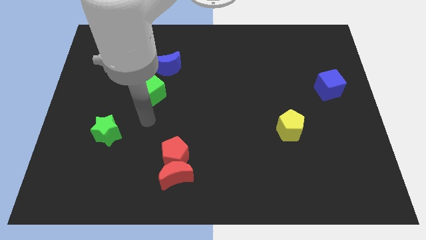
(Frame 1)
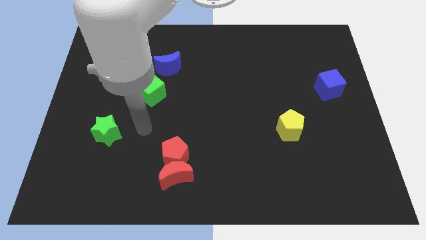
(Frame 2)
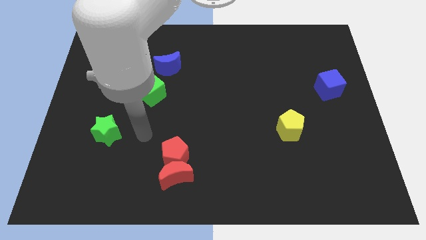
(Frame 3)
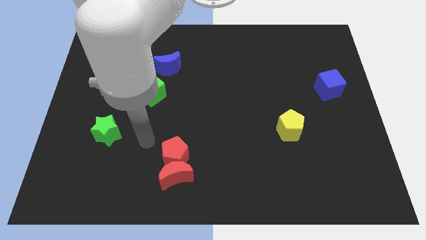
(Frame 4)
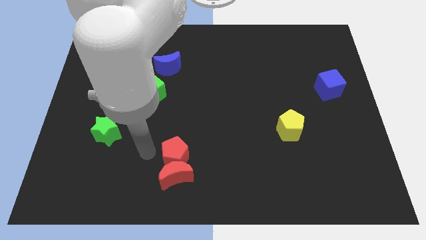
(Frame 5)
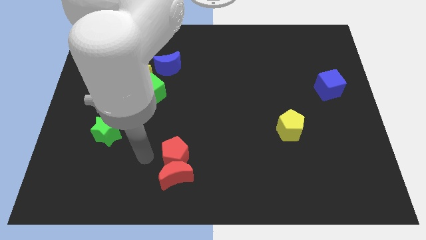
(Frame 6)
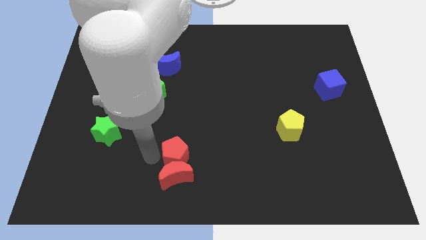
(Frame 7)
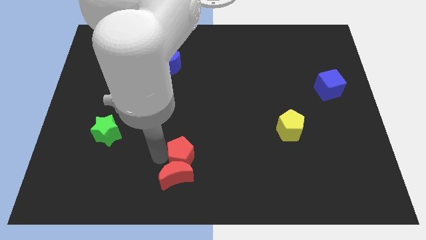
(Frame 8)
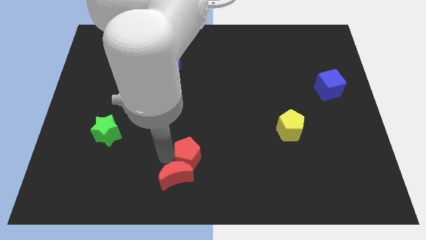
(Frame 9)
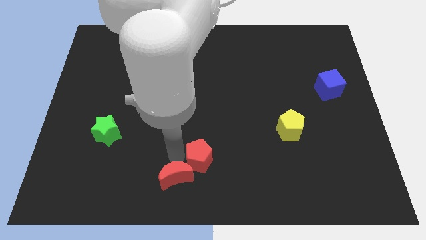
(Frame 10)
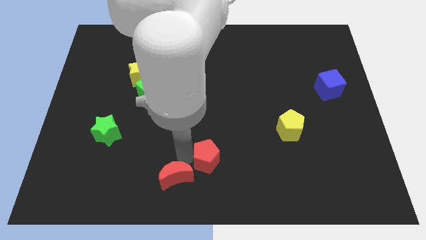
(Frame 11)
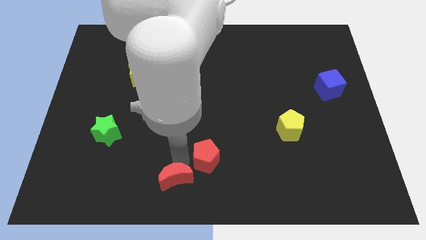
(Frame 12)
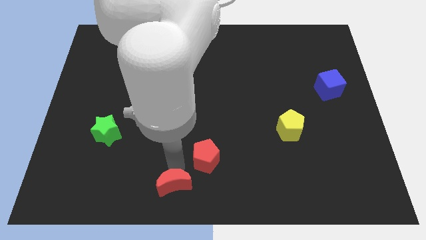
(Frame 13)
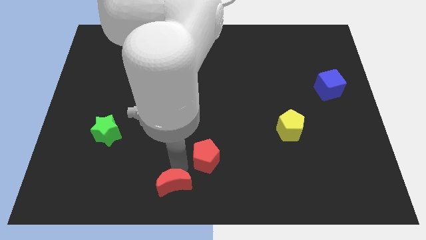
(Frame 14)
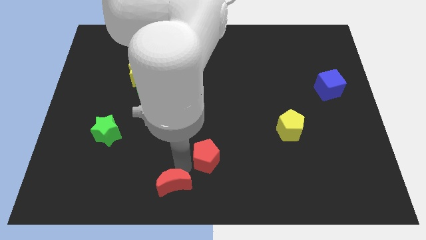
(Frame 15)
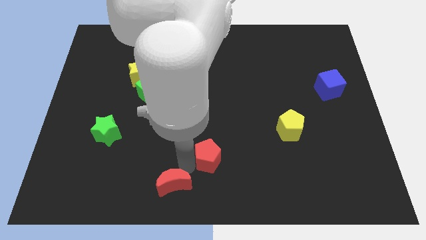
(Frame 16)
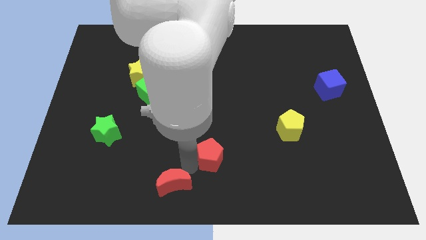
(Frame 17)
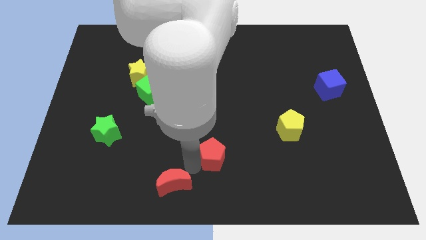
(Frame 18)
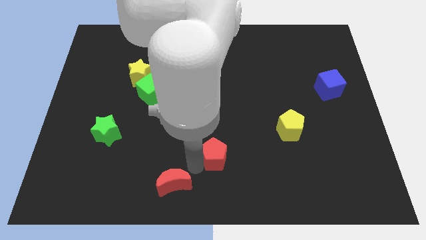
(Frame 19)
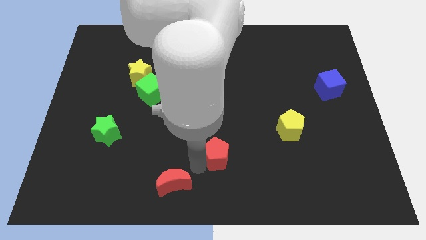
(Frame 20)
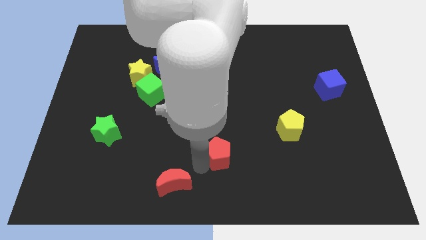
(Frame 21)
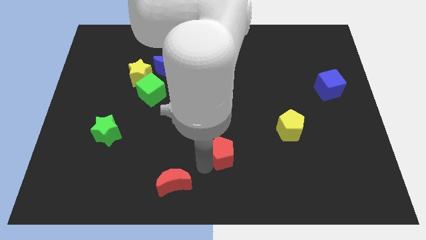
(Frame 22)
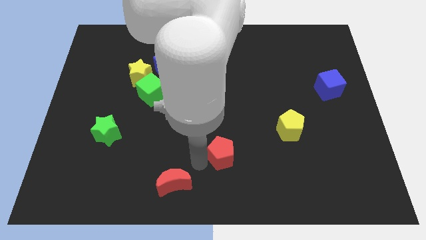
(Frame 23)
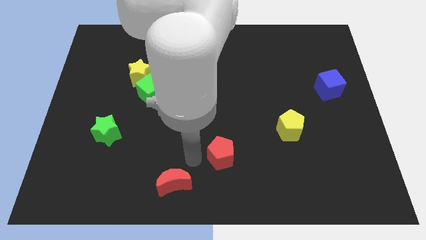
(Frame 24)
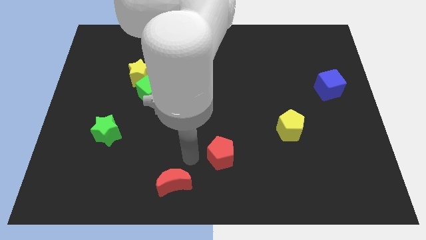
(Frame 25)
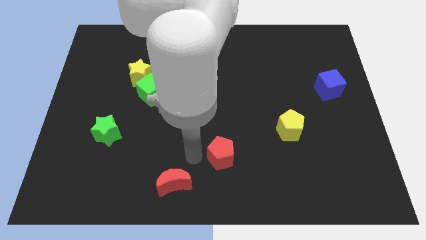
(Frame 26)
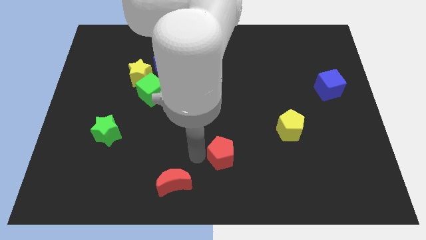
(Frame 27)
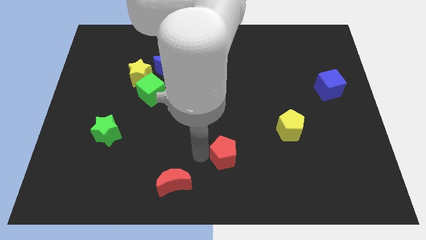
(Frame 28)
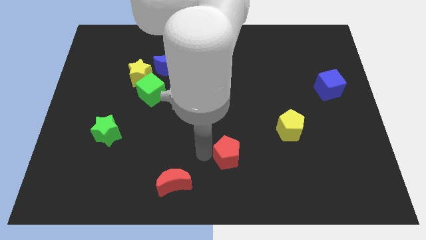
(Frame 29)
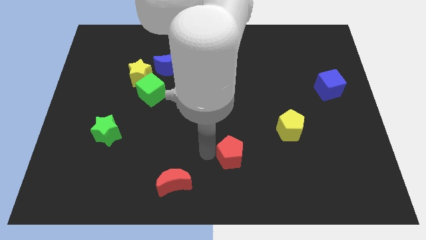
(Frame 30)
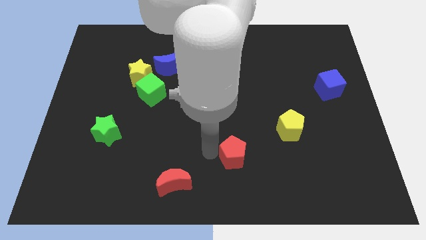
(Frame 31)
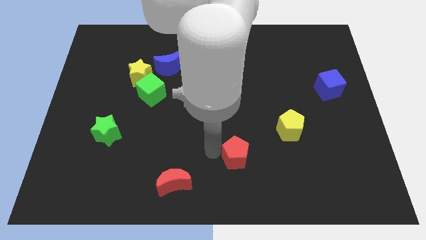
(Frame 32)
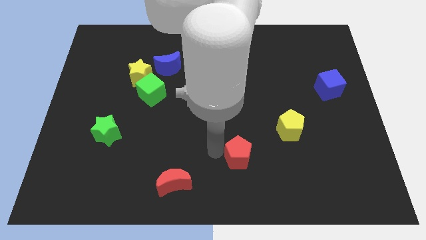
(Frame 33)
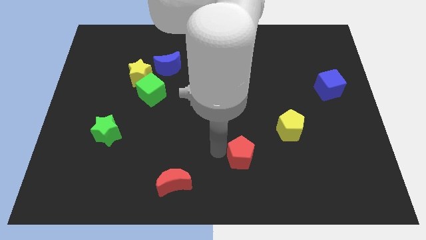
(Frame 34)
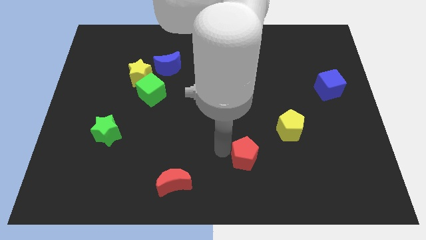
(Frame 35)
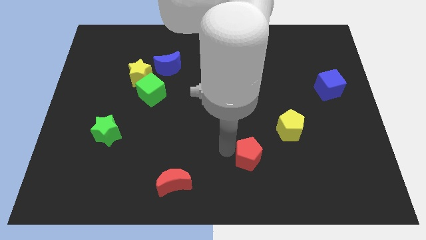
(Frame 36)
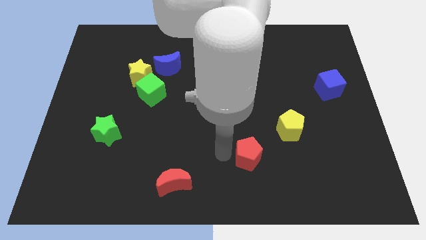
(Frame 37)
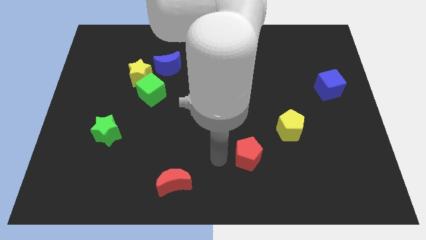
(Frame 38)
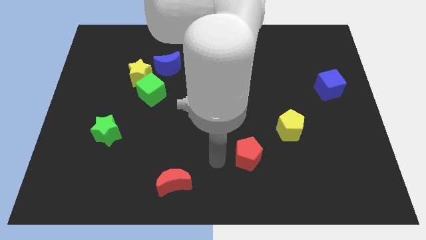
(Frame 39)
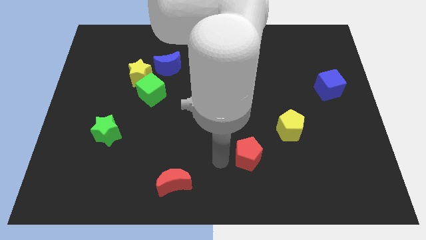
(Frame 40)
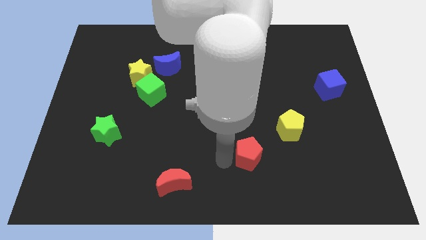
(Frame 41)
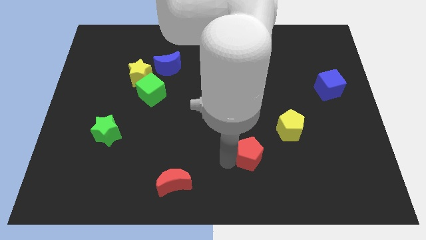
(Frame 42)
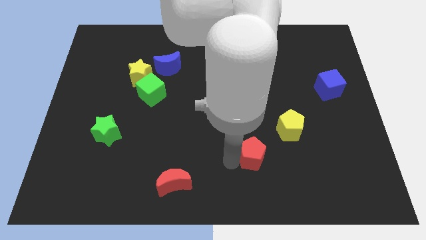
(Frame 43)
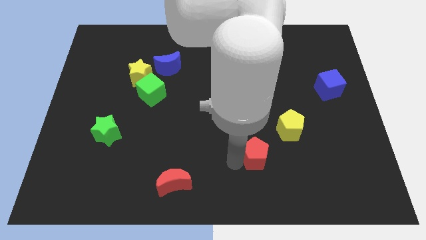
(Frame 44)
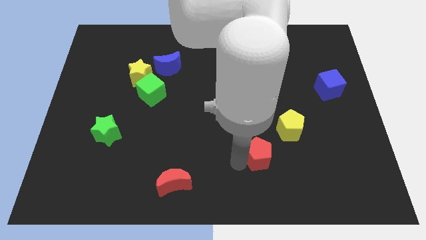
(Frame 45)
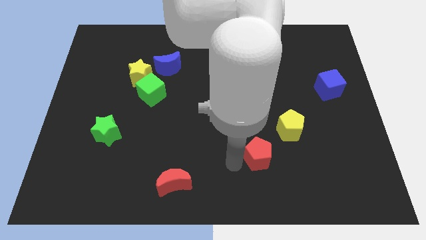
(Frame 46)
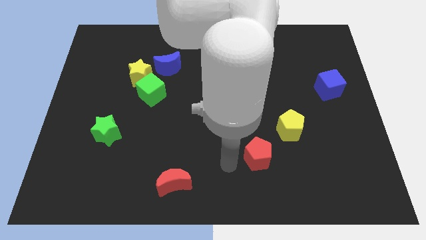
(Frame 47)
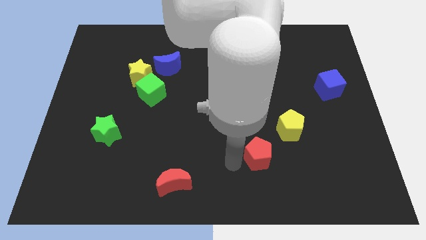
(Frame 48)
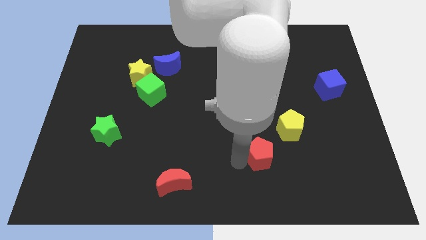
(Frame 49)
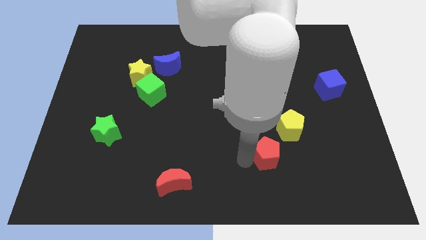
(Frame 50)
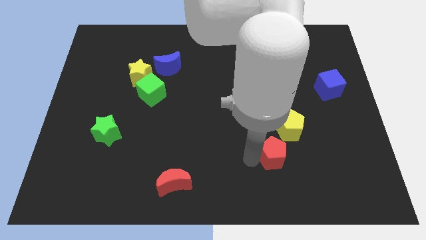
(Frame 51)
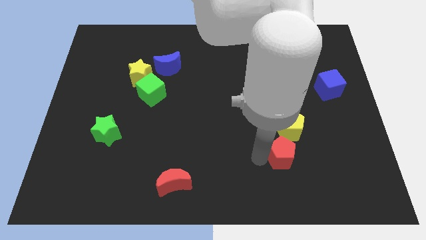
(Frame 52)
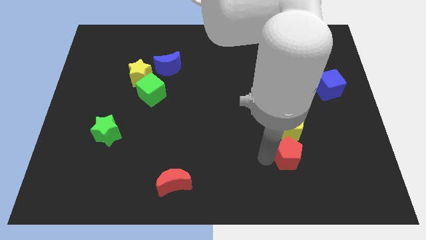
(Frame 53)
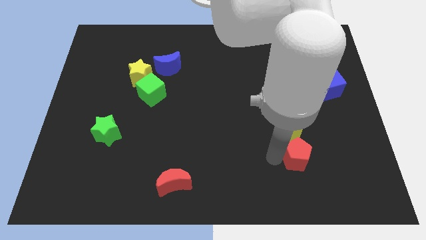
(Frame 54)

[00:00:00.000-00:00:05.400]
slide the red pentagon to the bottom right of the yellow pentagon

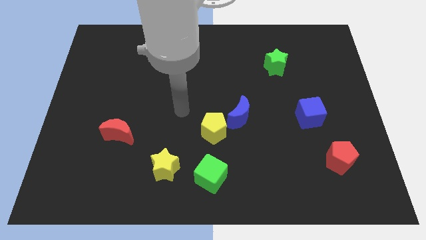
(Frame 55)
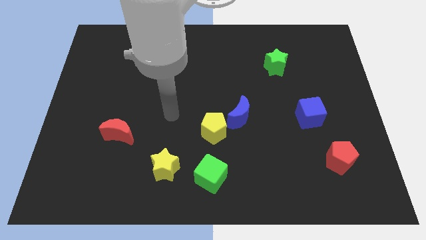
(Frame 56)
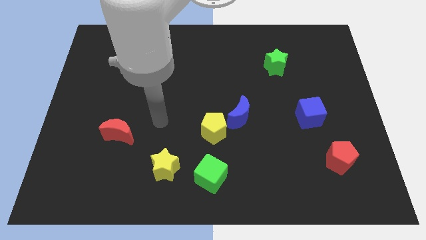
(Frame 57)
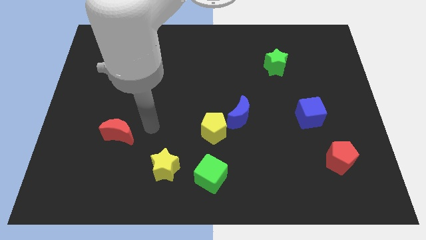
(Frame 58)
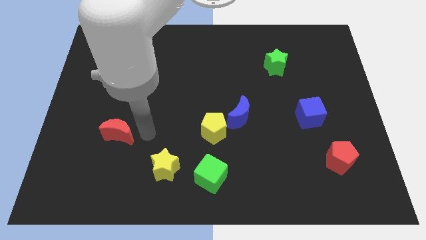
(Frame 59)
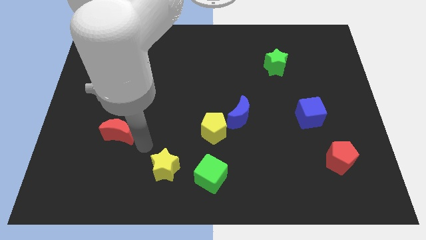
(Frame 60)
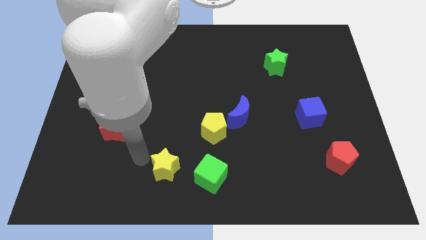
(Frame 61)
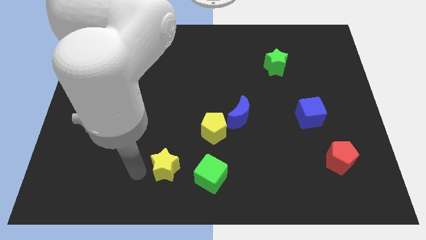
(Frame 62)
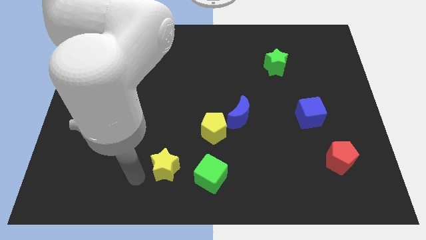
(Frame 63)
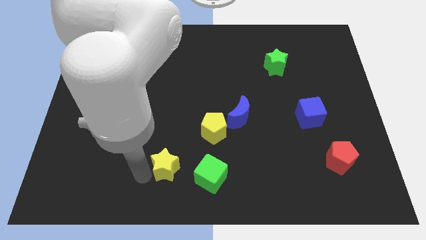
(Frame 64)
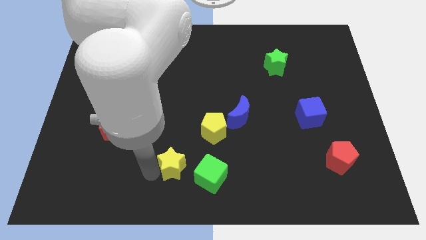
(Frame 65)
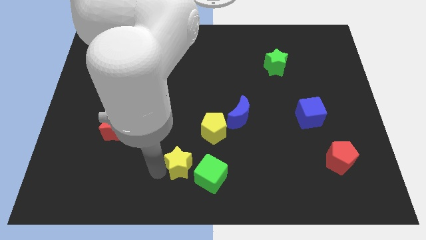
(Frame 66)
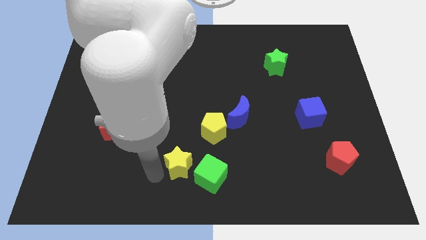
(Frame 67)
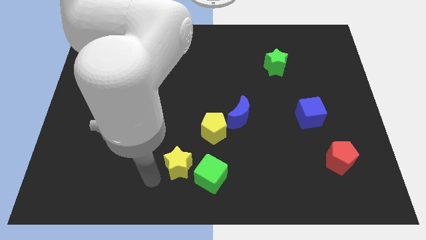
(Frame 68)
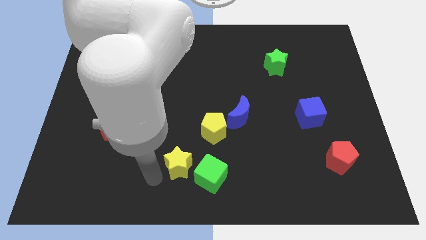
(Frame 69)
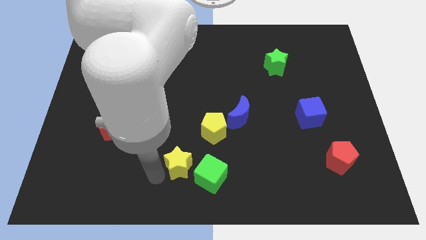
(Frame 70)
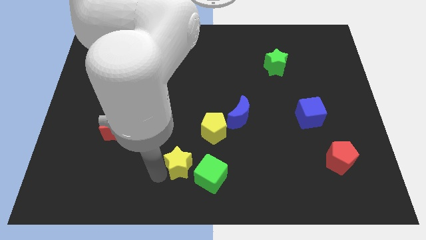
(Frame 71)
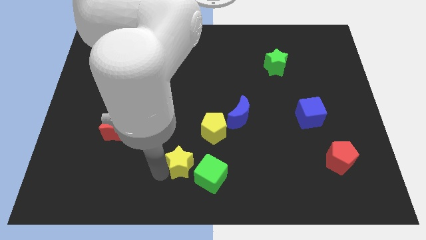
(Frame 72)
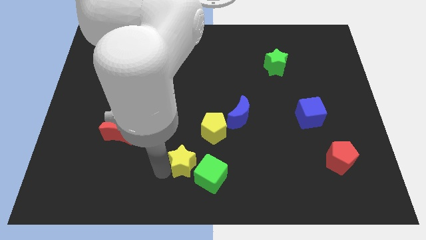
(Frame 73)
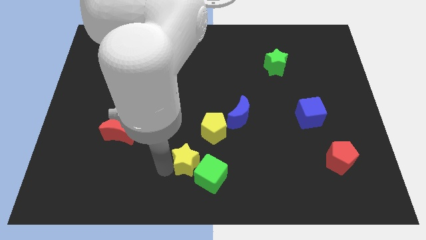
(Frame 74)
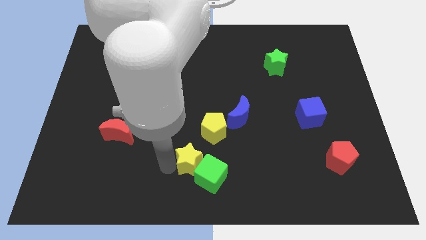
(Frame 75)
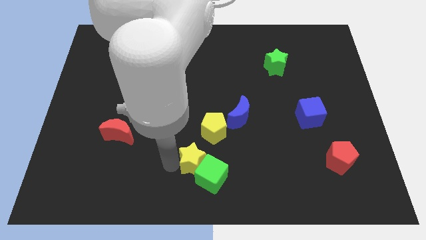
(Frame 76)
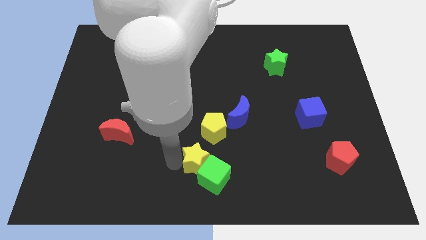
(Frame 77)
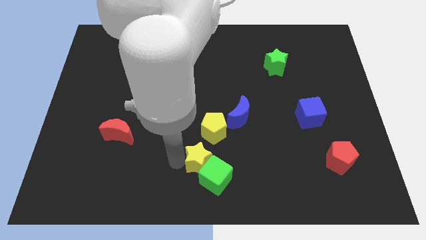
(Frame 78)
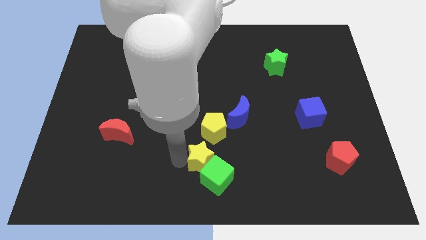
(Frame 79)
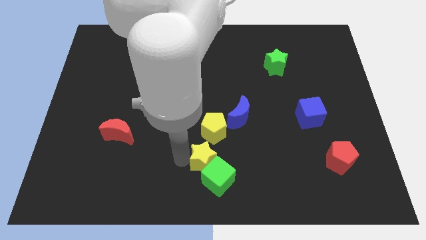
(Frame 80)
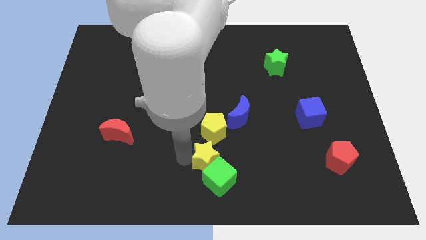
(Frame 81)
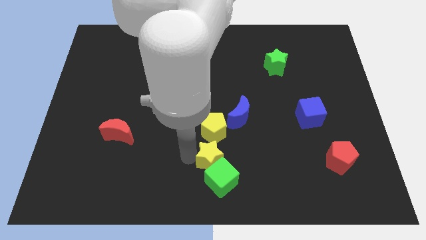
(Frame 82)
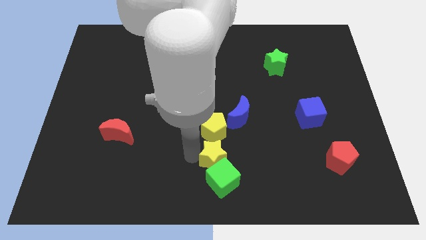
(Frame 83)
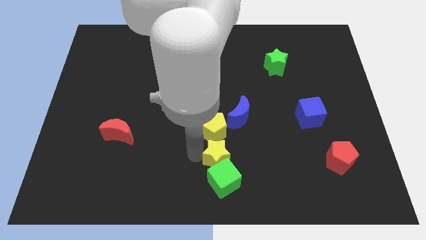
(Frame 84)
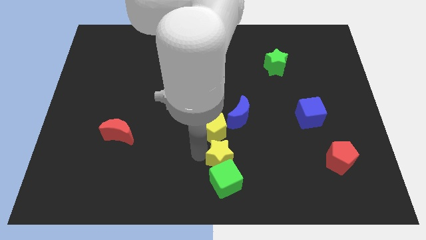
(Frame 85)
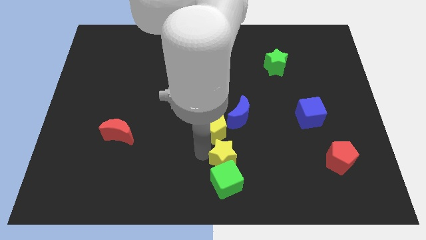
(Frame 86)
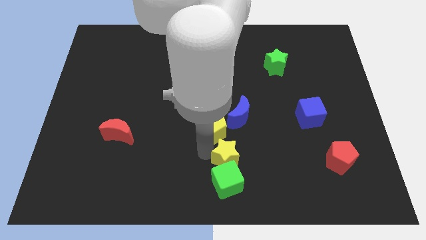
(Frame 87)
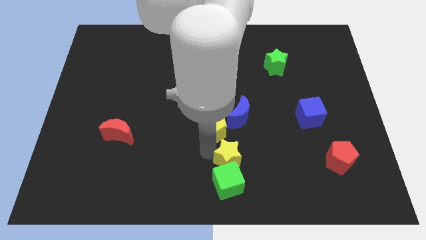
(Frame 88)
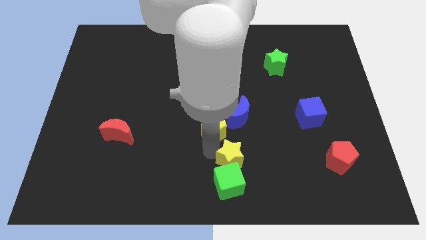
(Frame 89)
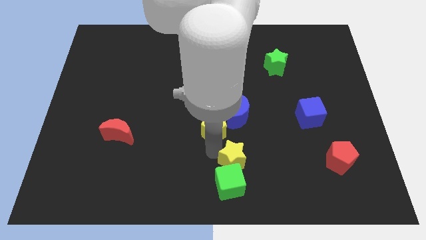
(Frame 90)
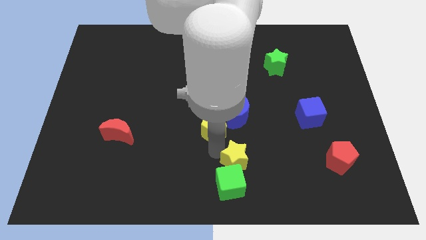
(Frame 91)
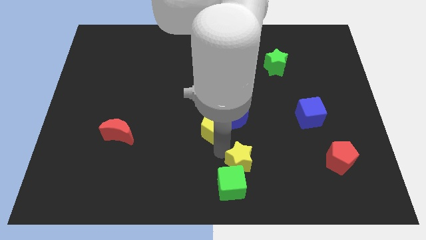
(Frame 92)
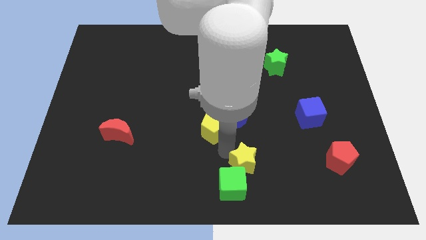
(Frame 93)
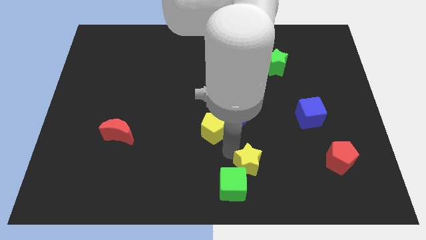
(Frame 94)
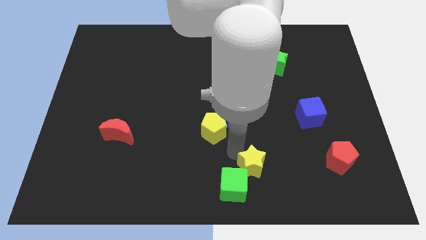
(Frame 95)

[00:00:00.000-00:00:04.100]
push the yellow star just right of the green cube
